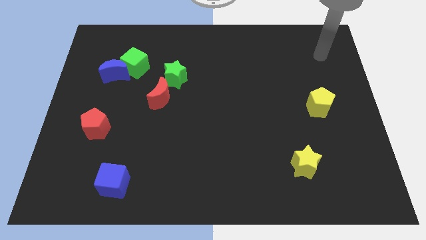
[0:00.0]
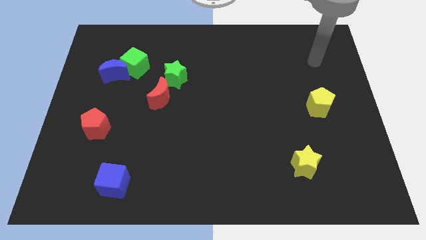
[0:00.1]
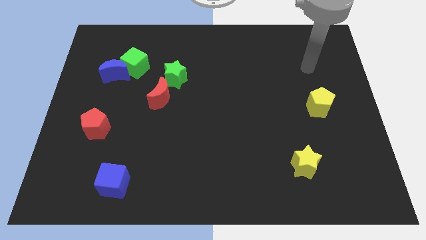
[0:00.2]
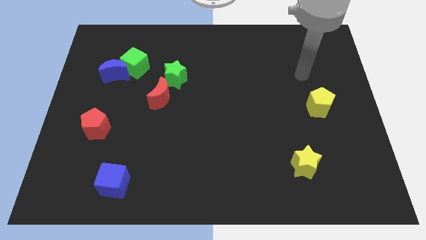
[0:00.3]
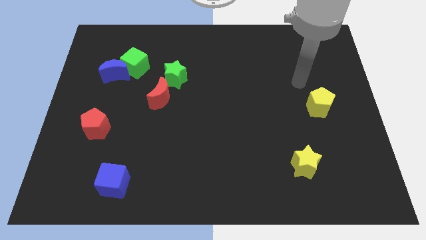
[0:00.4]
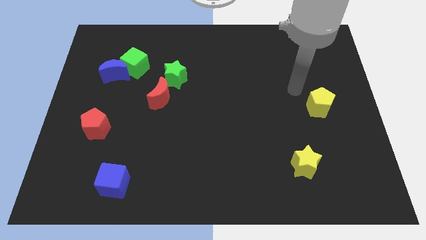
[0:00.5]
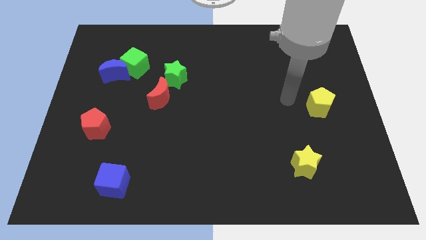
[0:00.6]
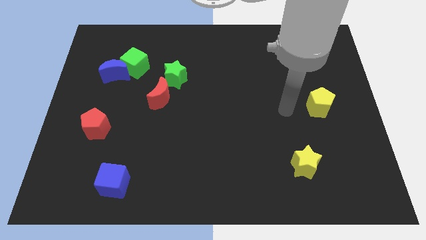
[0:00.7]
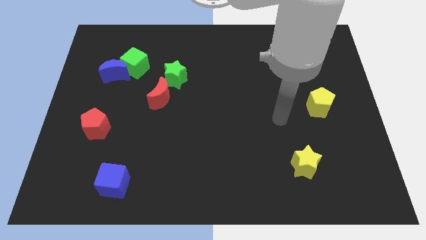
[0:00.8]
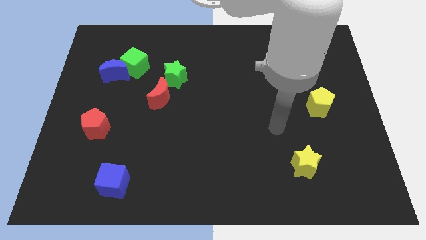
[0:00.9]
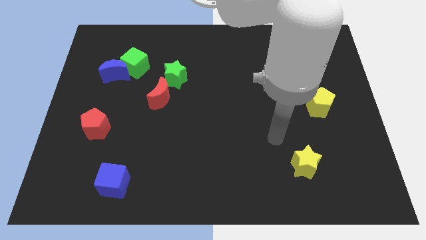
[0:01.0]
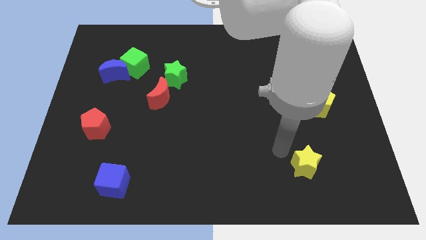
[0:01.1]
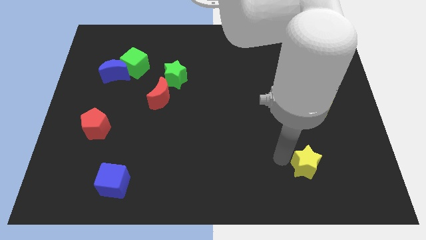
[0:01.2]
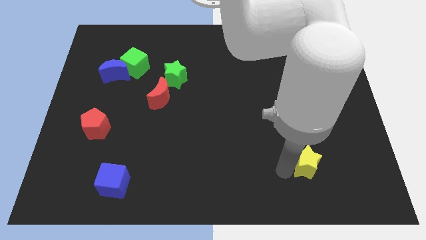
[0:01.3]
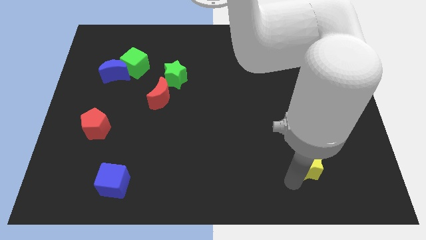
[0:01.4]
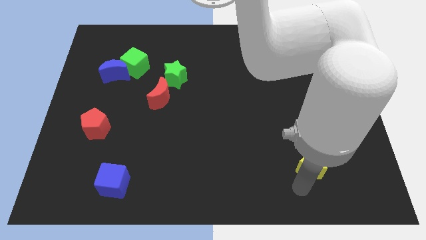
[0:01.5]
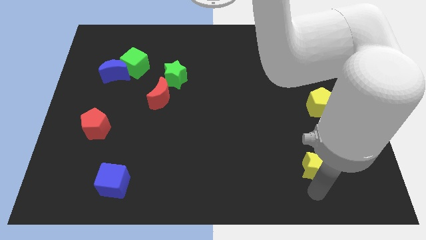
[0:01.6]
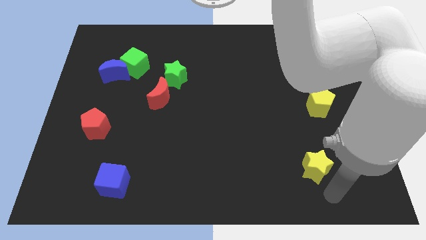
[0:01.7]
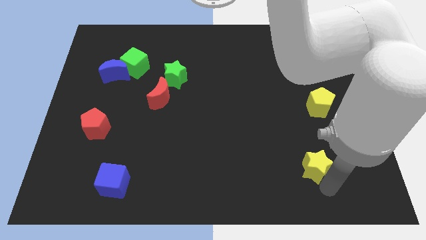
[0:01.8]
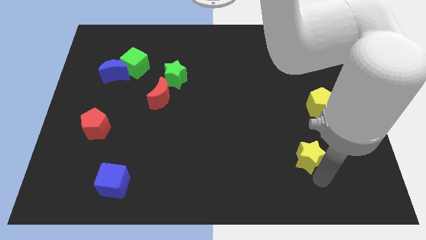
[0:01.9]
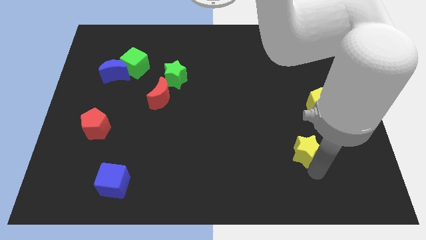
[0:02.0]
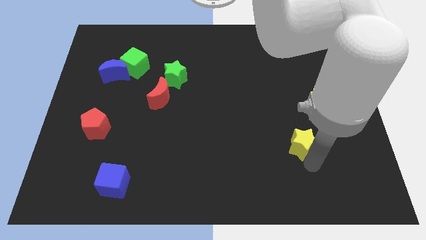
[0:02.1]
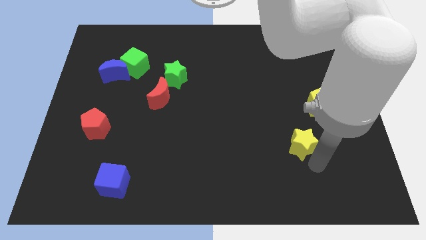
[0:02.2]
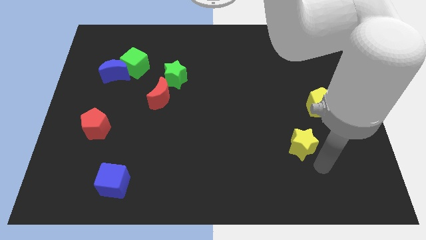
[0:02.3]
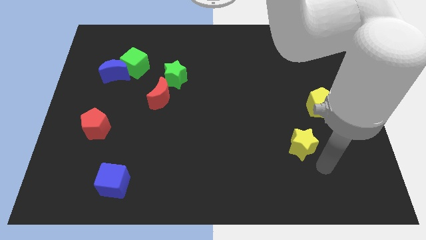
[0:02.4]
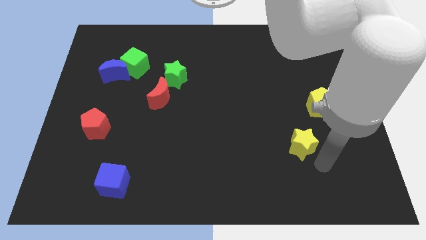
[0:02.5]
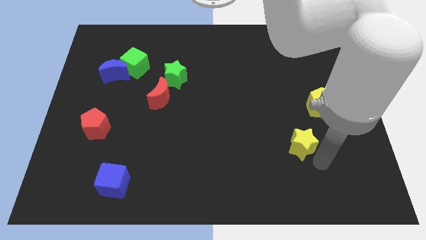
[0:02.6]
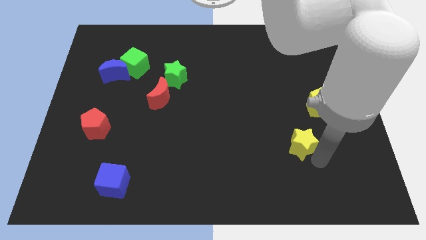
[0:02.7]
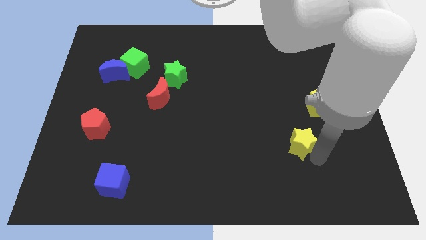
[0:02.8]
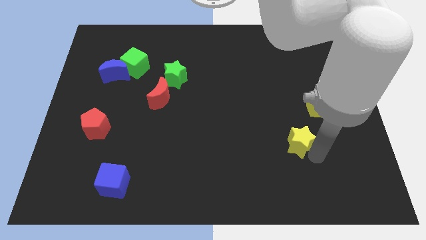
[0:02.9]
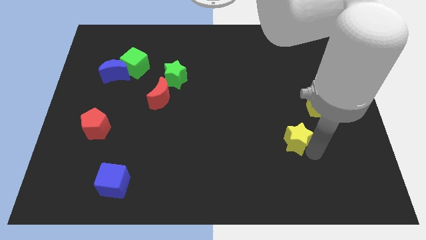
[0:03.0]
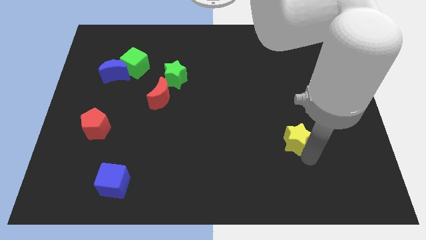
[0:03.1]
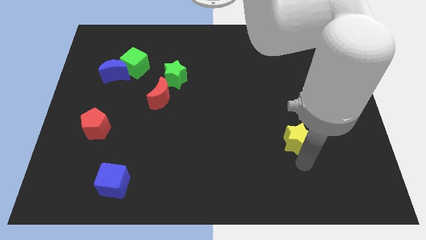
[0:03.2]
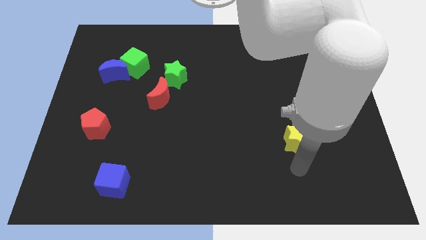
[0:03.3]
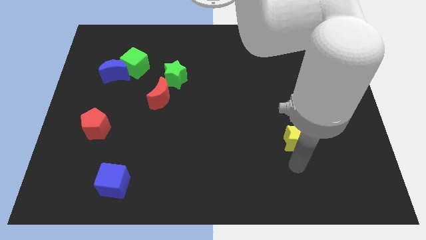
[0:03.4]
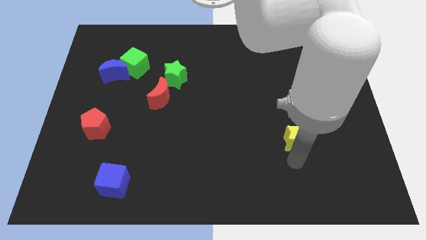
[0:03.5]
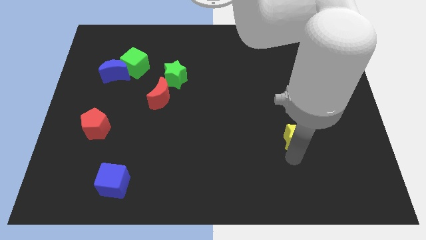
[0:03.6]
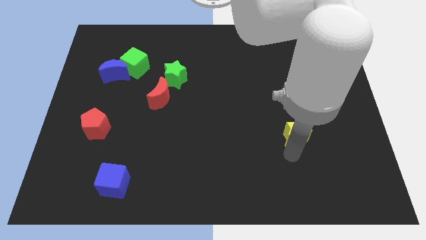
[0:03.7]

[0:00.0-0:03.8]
push the yellow star somewhat up

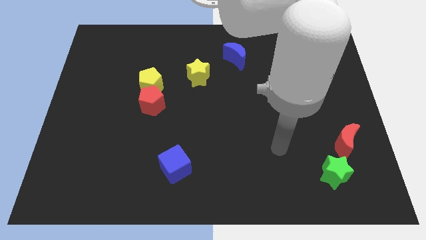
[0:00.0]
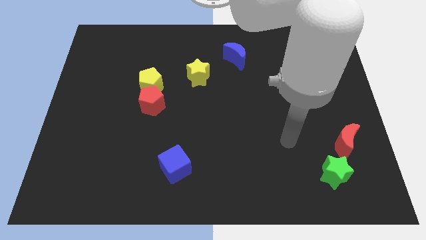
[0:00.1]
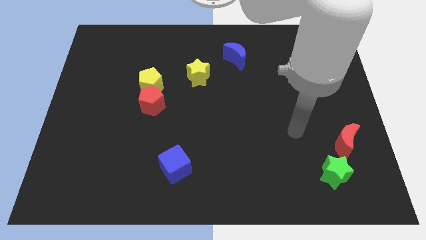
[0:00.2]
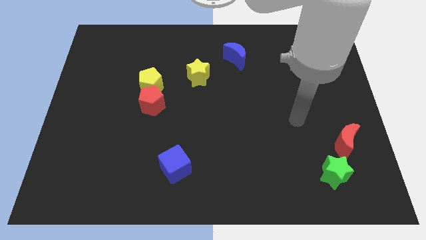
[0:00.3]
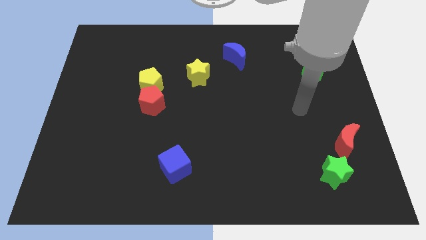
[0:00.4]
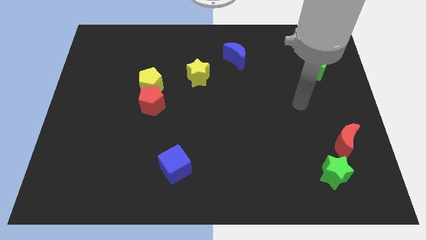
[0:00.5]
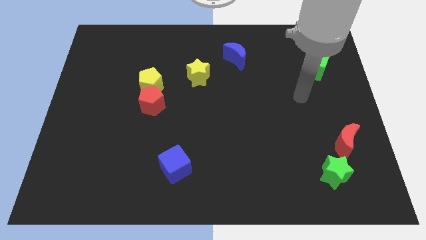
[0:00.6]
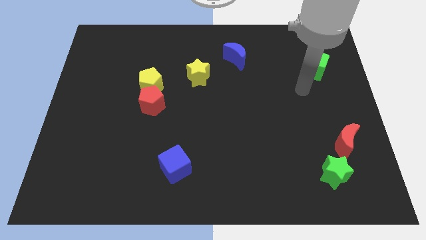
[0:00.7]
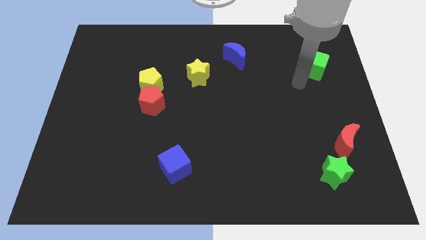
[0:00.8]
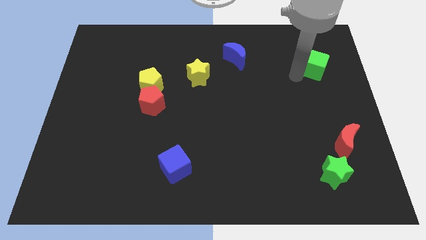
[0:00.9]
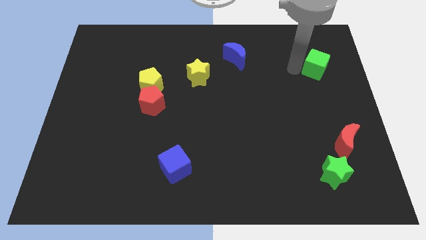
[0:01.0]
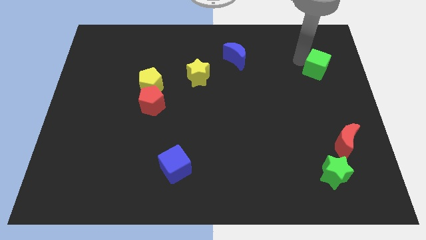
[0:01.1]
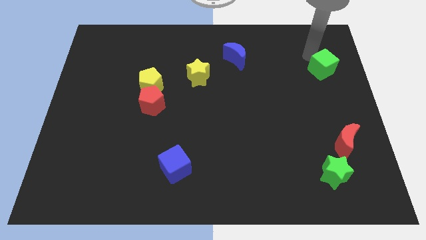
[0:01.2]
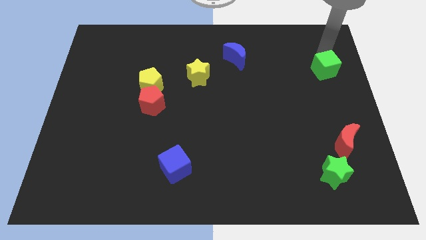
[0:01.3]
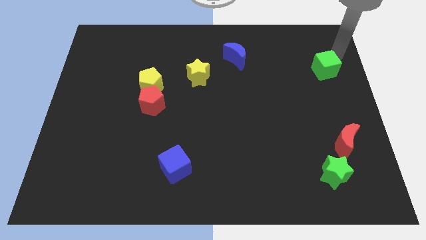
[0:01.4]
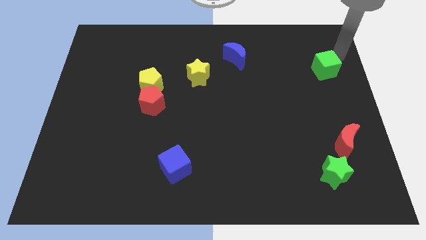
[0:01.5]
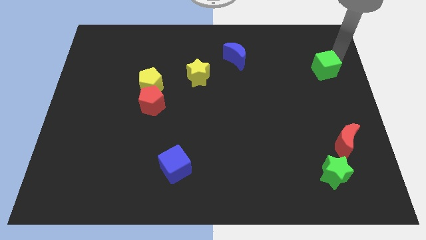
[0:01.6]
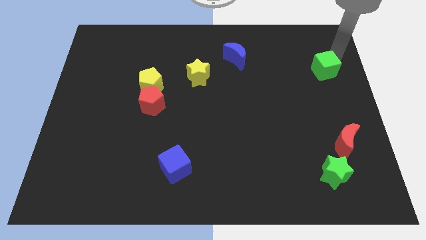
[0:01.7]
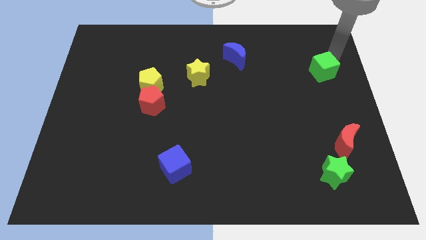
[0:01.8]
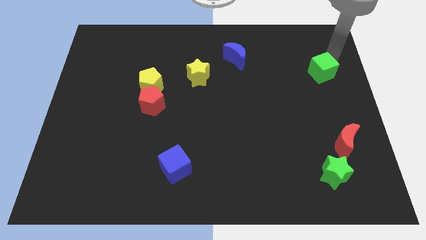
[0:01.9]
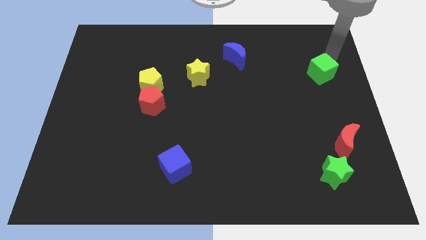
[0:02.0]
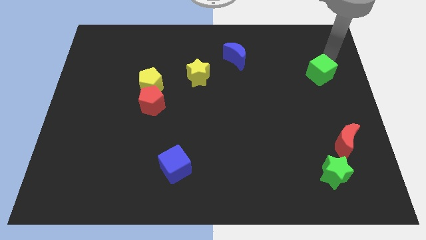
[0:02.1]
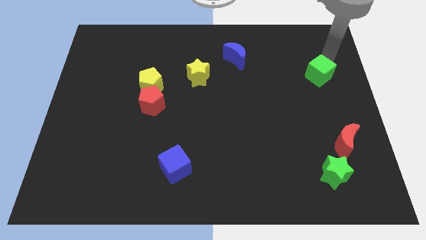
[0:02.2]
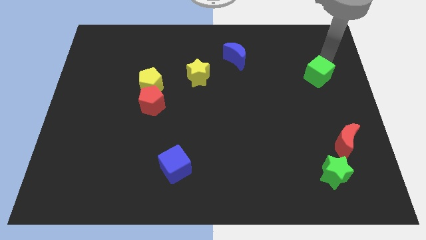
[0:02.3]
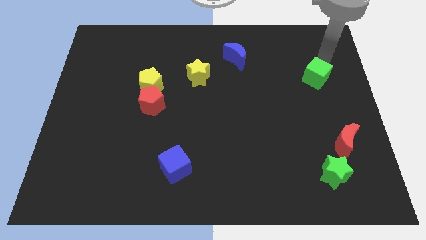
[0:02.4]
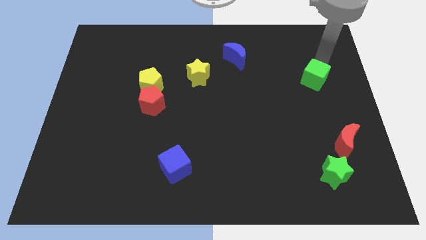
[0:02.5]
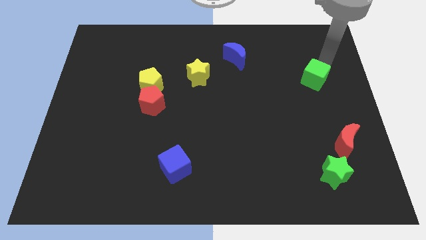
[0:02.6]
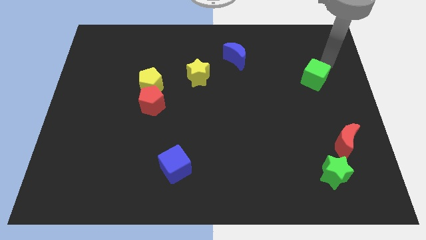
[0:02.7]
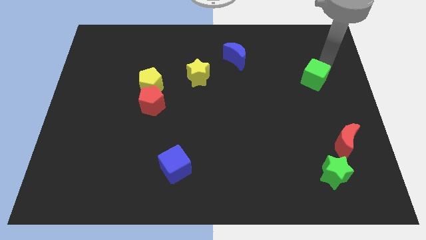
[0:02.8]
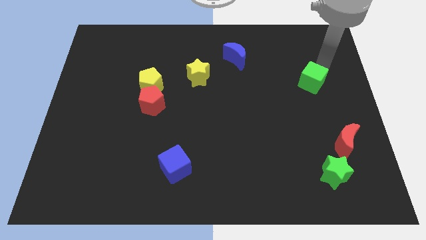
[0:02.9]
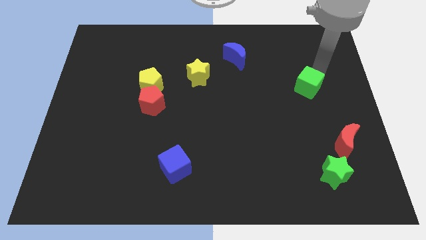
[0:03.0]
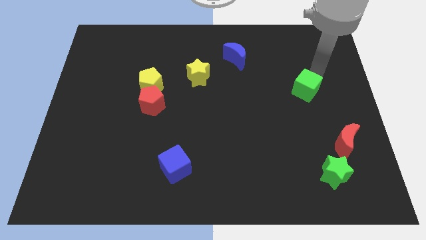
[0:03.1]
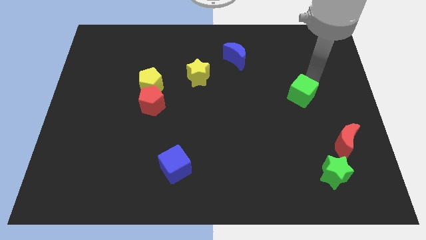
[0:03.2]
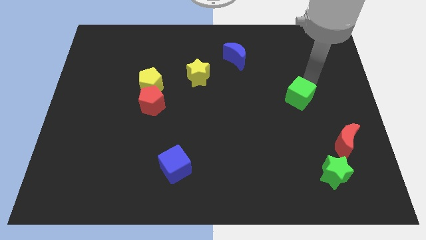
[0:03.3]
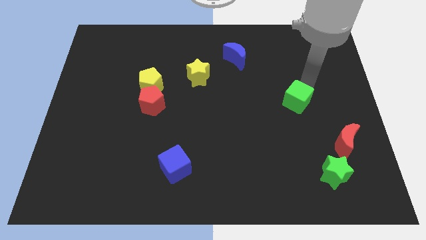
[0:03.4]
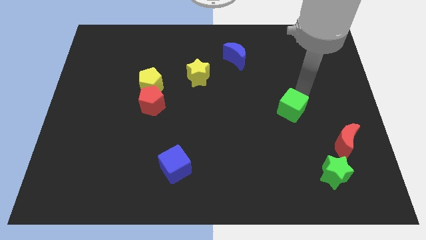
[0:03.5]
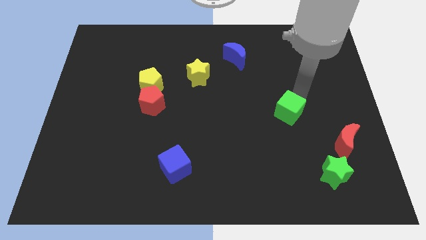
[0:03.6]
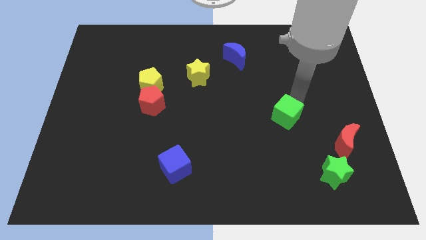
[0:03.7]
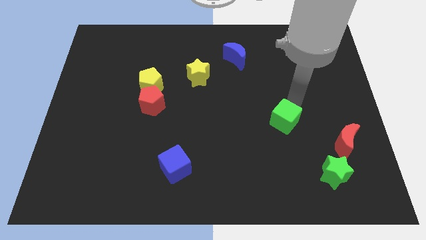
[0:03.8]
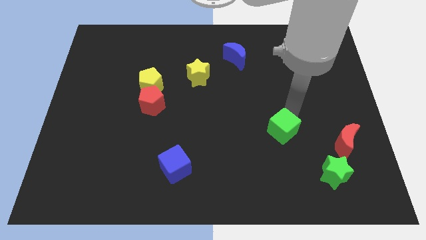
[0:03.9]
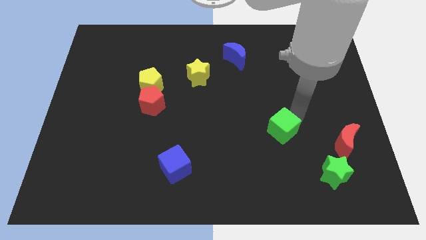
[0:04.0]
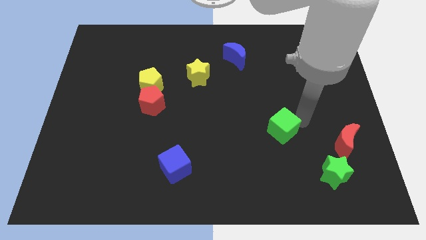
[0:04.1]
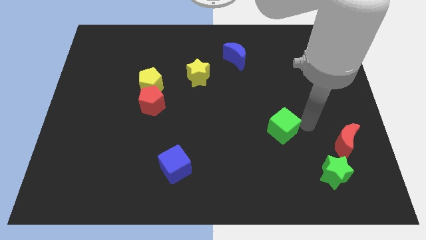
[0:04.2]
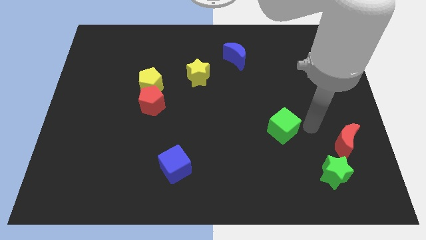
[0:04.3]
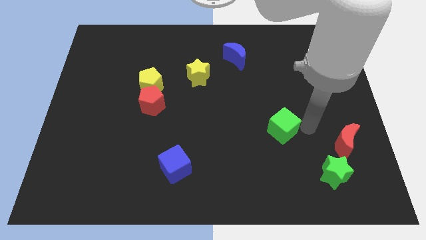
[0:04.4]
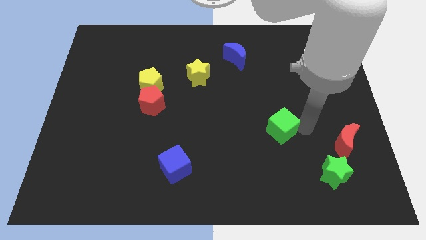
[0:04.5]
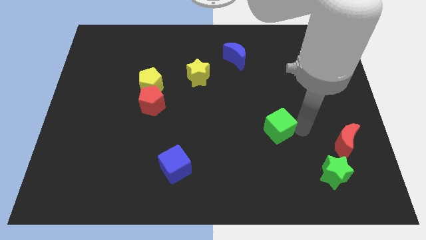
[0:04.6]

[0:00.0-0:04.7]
slide the green cube downwards and to the left diagonally
